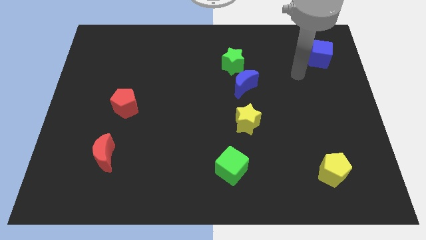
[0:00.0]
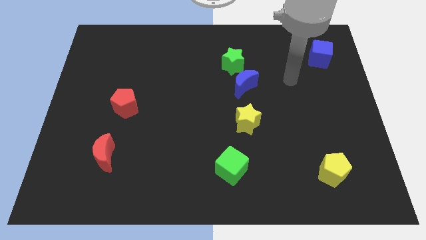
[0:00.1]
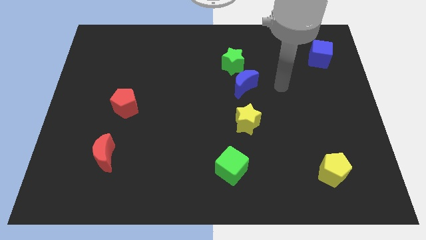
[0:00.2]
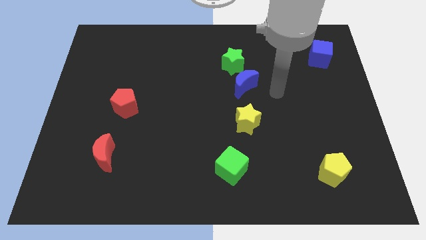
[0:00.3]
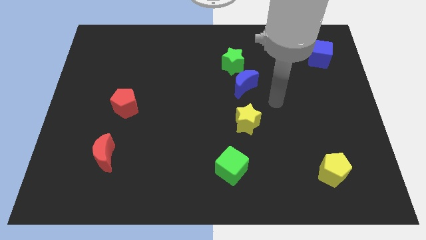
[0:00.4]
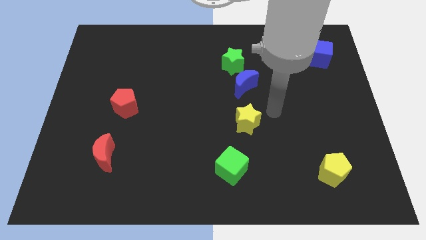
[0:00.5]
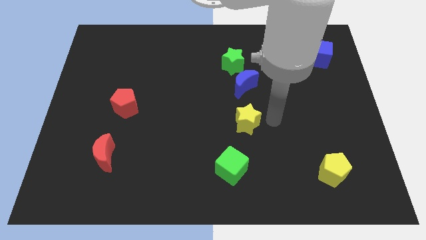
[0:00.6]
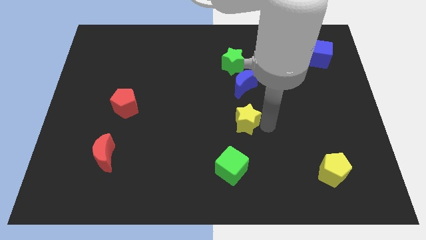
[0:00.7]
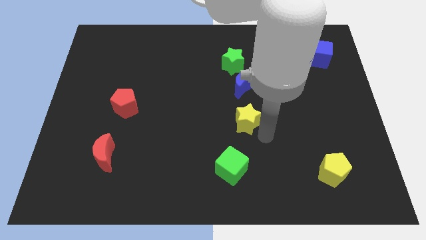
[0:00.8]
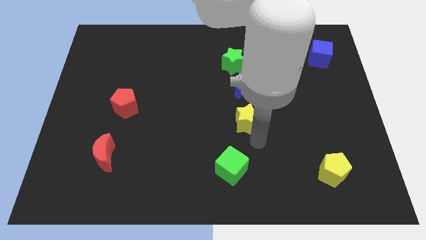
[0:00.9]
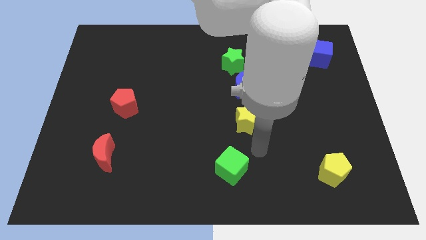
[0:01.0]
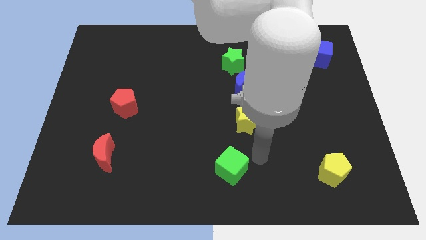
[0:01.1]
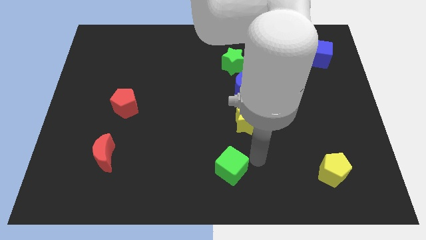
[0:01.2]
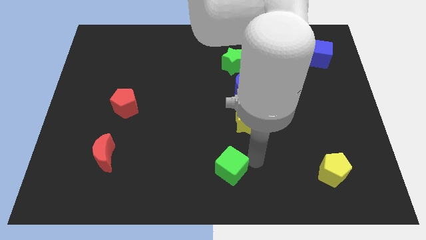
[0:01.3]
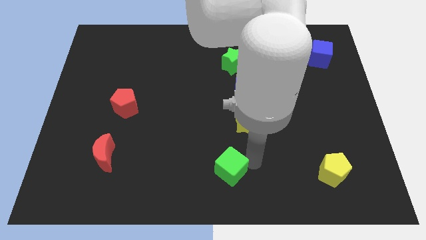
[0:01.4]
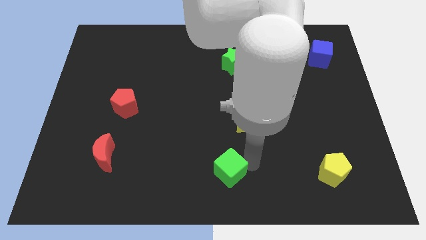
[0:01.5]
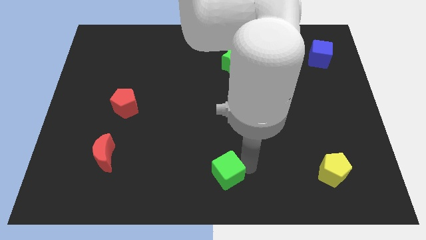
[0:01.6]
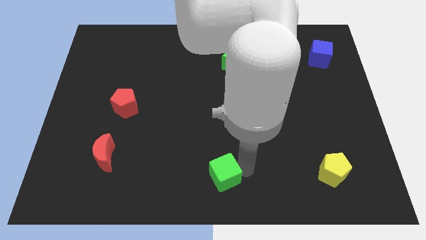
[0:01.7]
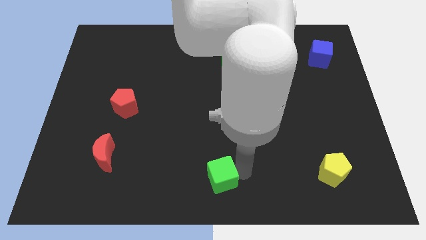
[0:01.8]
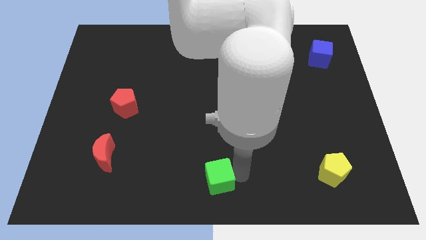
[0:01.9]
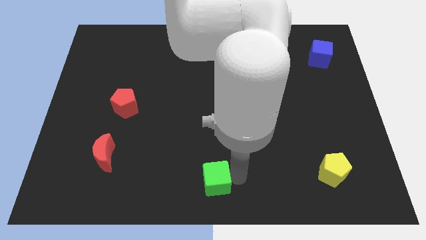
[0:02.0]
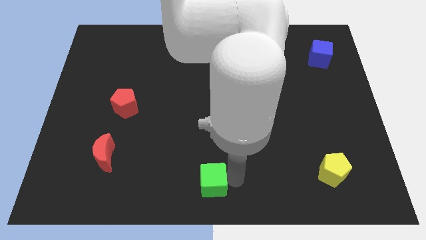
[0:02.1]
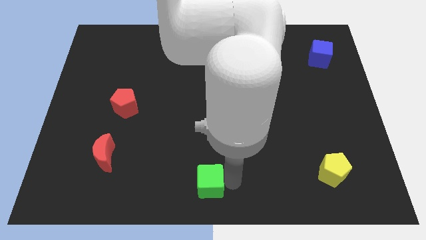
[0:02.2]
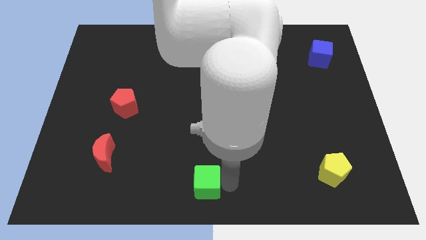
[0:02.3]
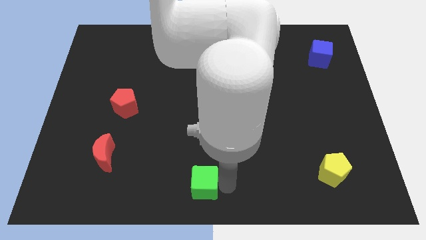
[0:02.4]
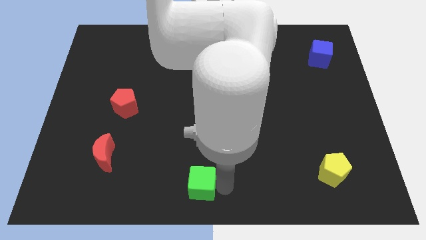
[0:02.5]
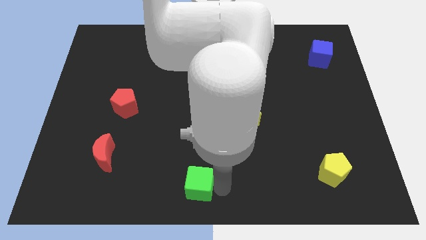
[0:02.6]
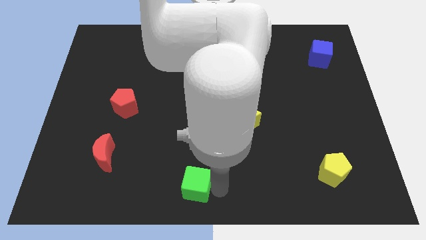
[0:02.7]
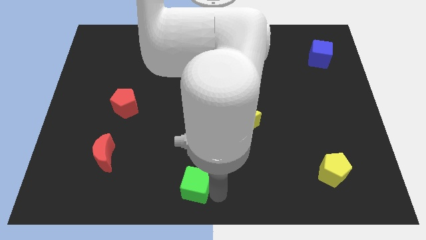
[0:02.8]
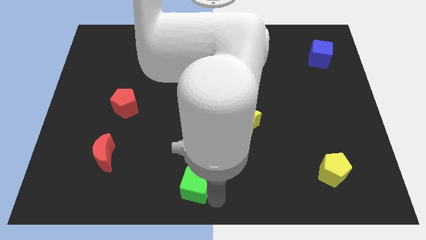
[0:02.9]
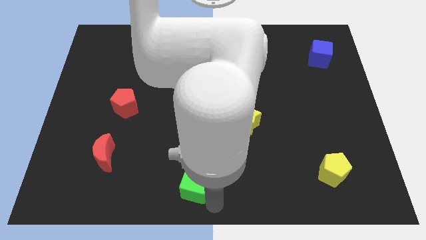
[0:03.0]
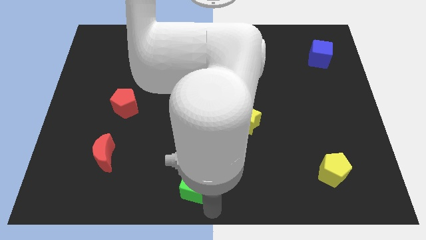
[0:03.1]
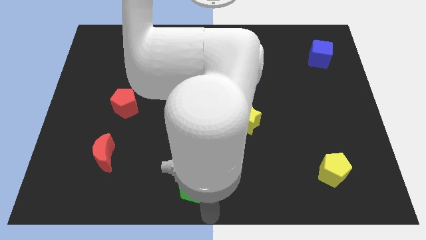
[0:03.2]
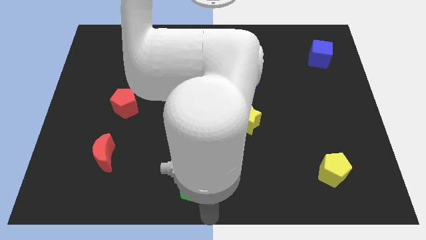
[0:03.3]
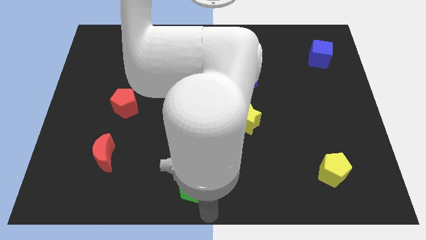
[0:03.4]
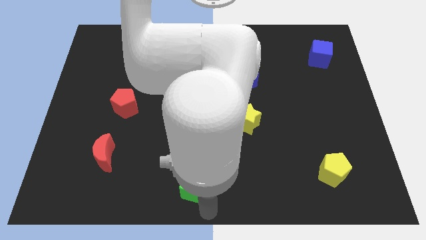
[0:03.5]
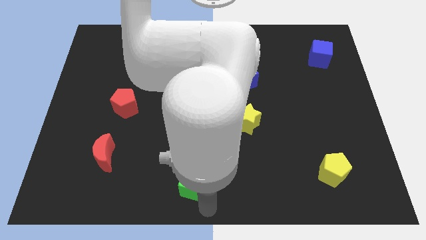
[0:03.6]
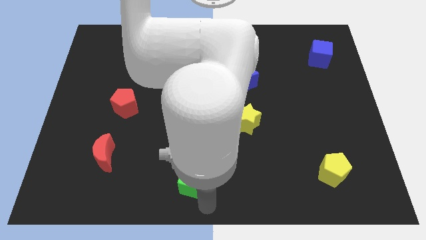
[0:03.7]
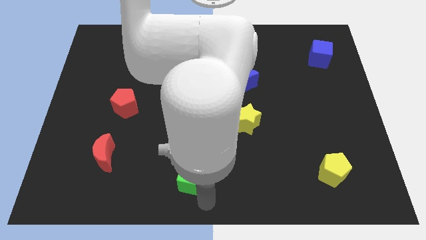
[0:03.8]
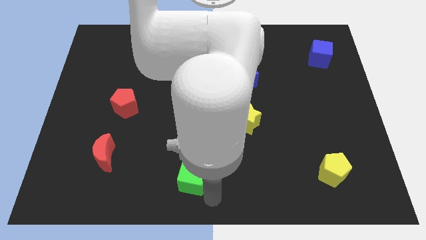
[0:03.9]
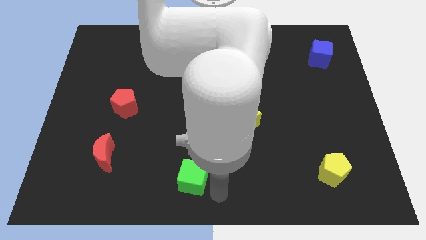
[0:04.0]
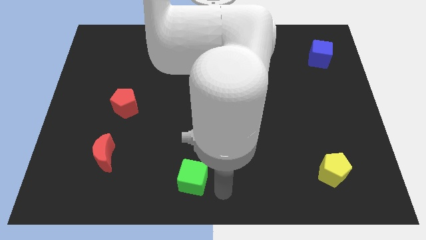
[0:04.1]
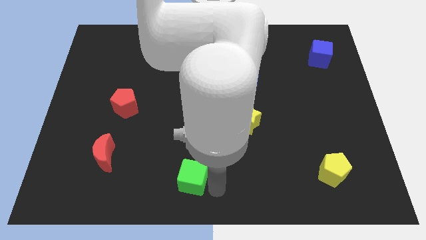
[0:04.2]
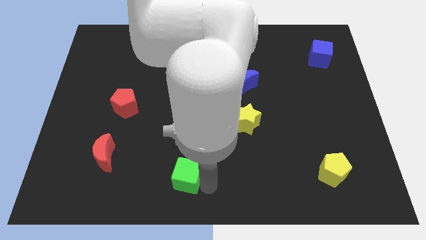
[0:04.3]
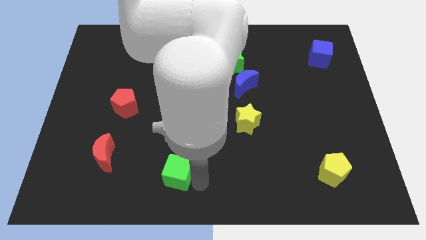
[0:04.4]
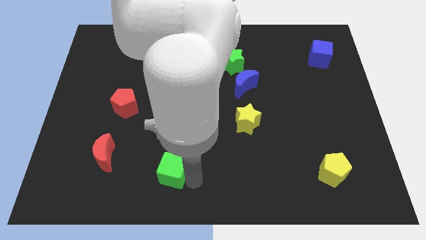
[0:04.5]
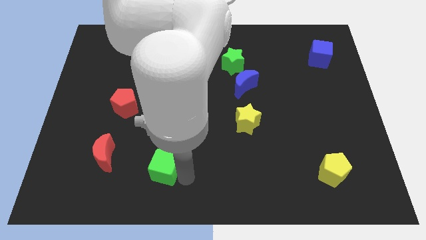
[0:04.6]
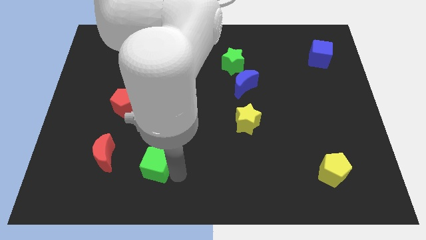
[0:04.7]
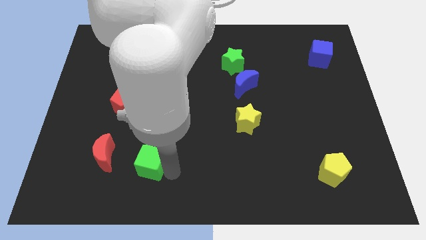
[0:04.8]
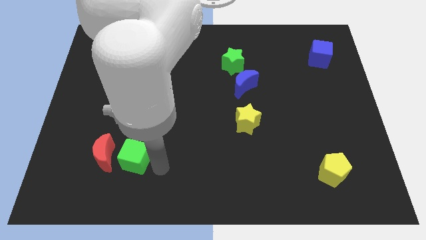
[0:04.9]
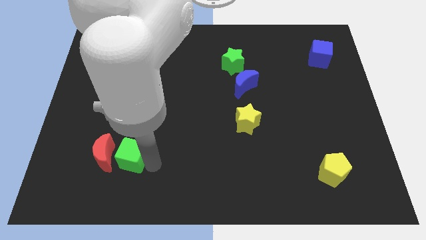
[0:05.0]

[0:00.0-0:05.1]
move the green cube to the red moon

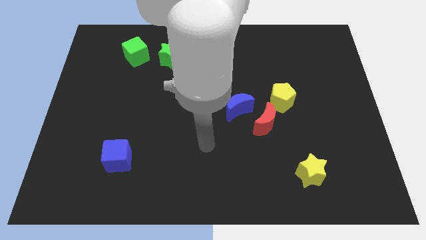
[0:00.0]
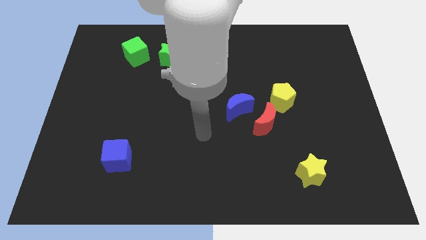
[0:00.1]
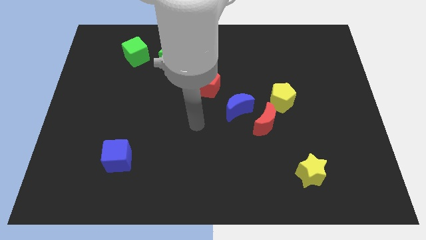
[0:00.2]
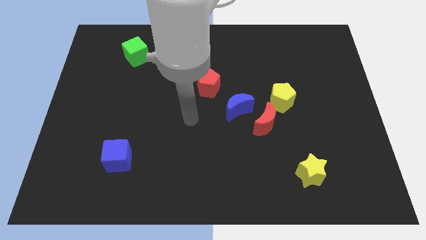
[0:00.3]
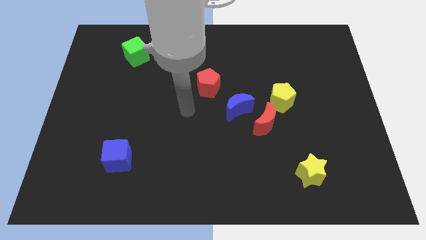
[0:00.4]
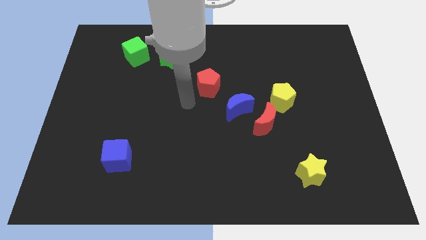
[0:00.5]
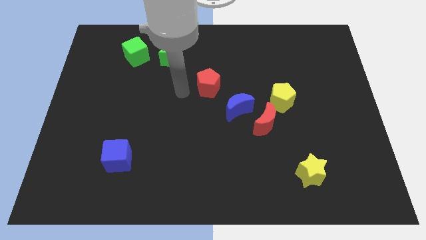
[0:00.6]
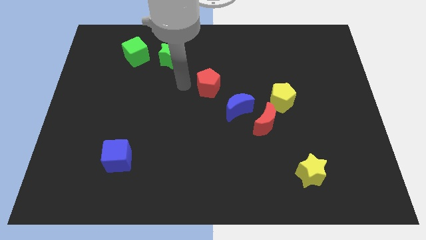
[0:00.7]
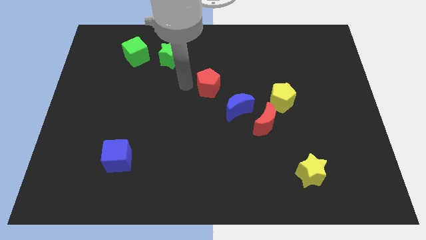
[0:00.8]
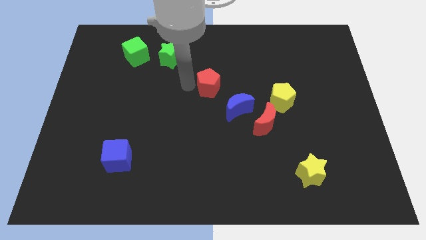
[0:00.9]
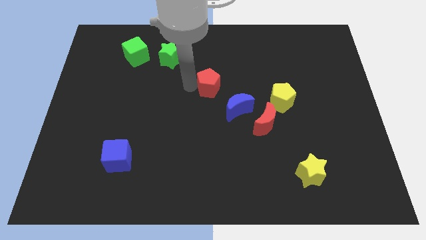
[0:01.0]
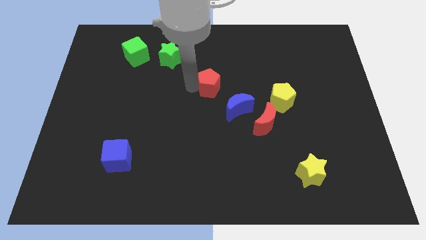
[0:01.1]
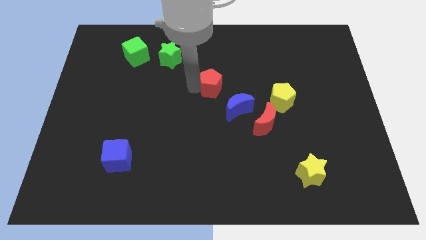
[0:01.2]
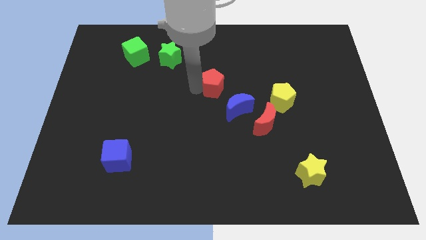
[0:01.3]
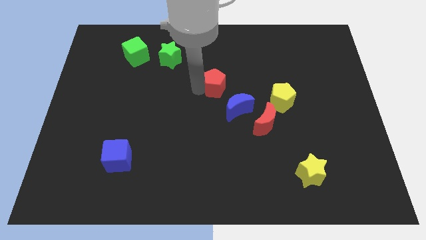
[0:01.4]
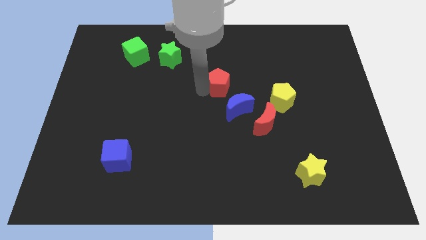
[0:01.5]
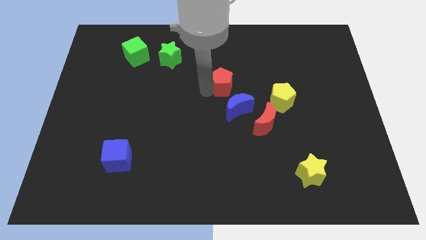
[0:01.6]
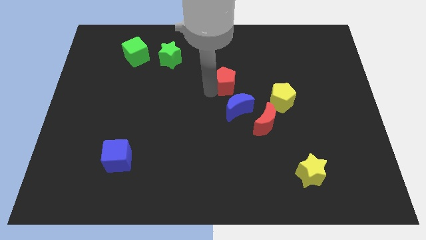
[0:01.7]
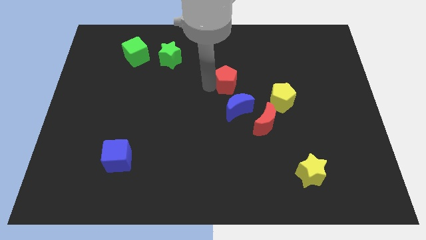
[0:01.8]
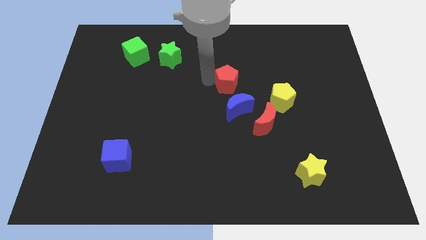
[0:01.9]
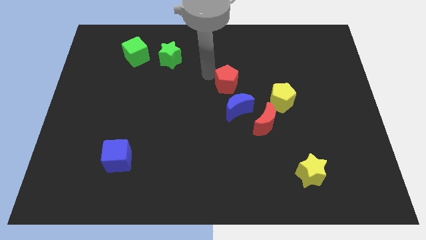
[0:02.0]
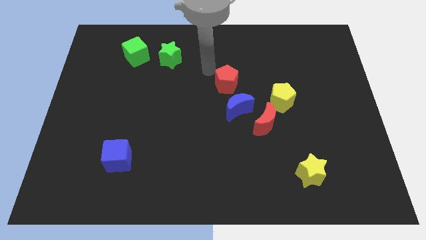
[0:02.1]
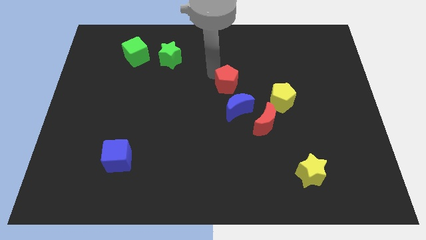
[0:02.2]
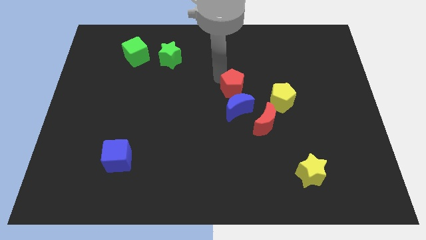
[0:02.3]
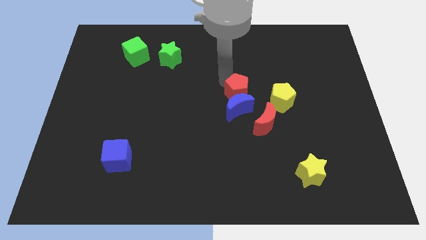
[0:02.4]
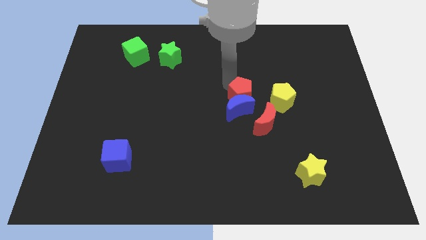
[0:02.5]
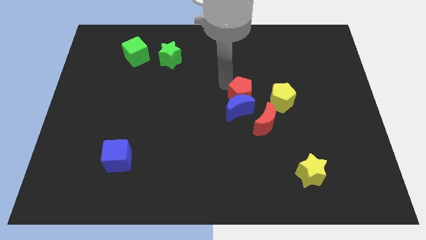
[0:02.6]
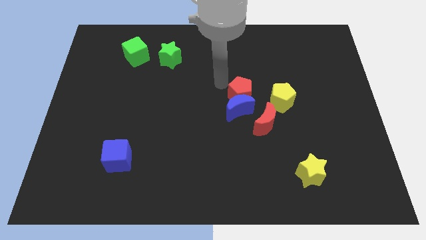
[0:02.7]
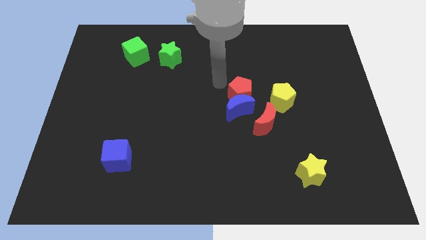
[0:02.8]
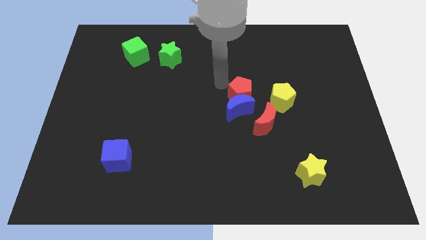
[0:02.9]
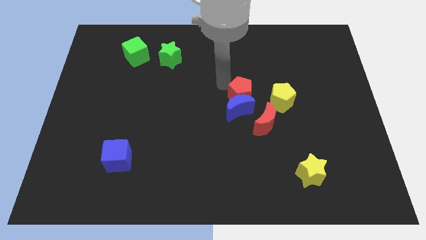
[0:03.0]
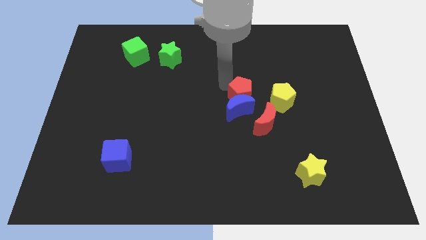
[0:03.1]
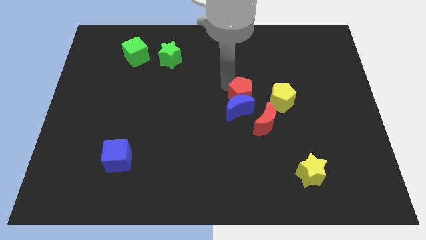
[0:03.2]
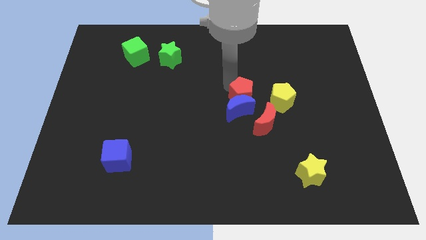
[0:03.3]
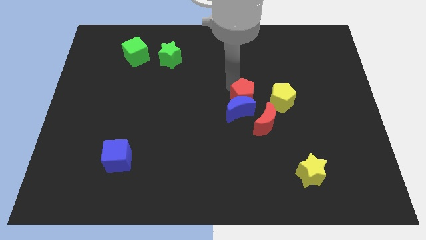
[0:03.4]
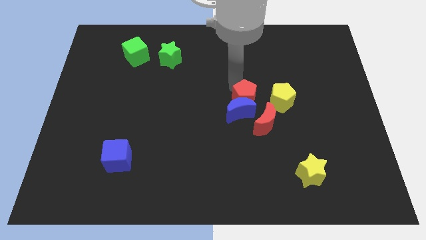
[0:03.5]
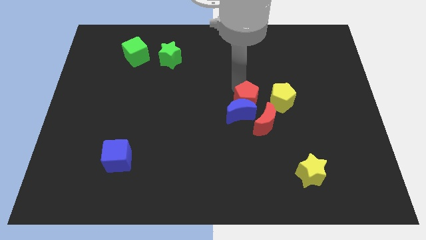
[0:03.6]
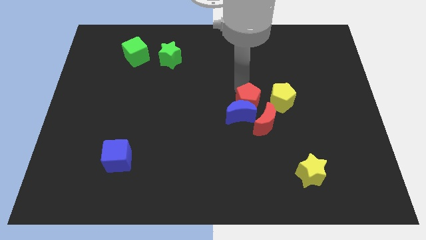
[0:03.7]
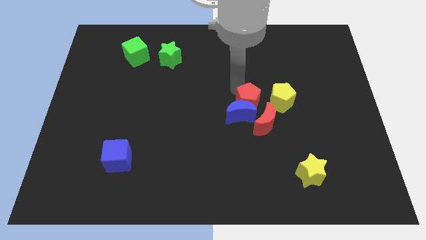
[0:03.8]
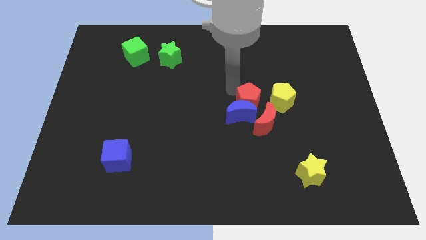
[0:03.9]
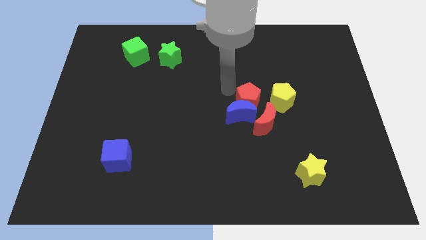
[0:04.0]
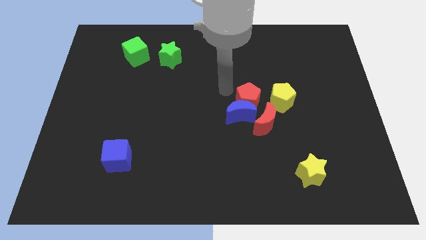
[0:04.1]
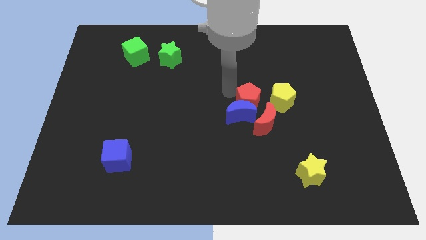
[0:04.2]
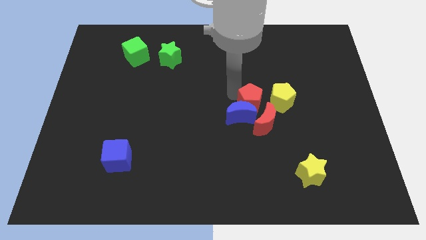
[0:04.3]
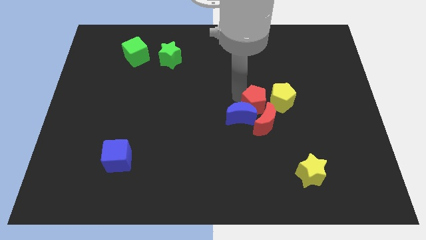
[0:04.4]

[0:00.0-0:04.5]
push the red pentagon towards the red moon
